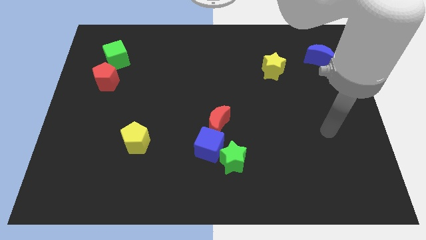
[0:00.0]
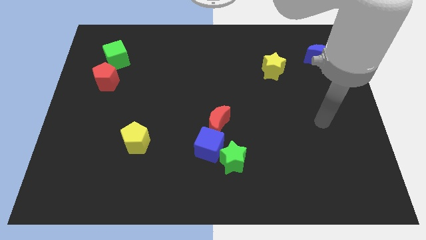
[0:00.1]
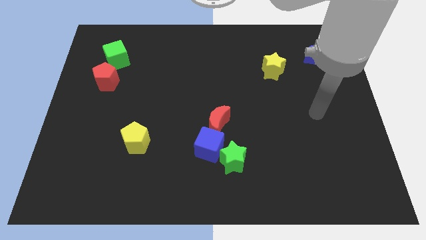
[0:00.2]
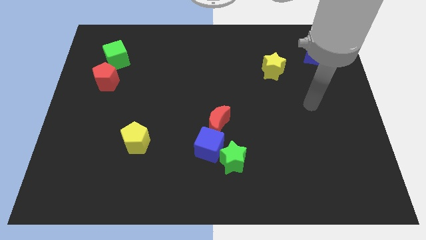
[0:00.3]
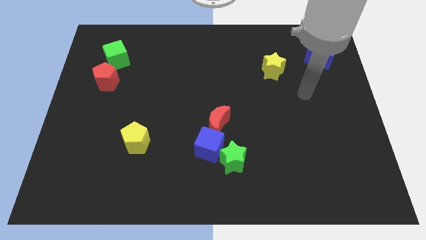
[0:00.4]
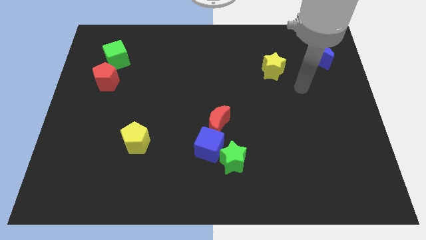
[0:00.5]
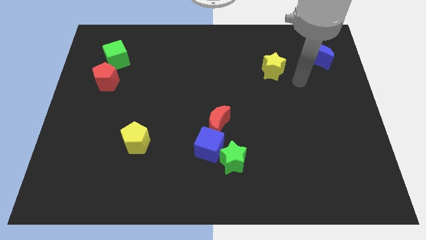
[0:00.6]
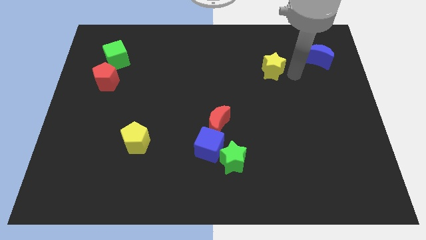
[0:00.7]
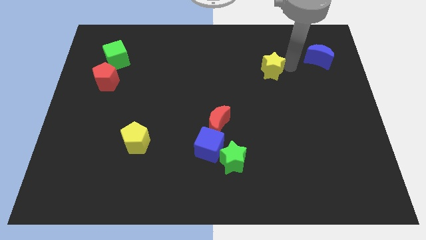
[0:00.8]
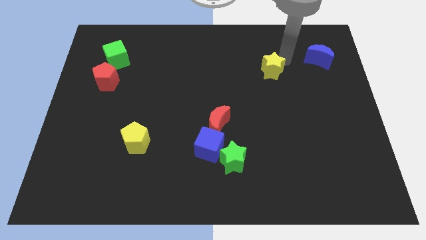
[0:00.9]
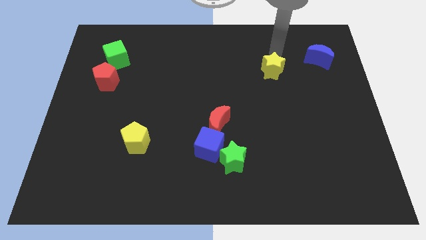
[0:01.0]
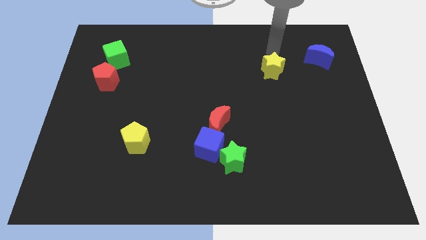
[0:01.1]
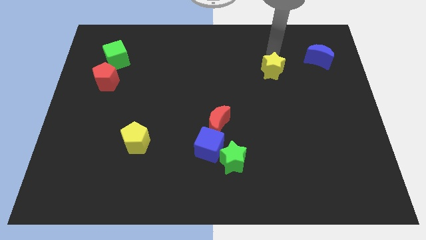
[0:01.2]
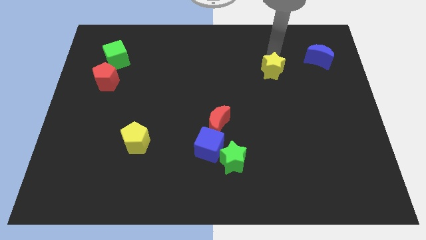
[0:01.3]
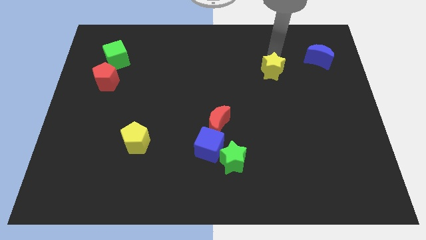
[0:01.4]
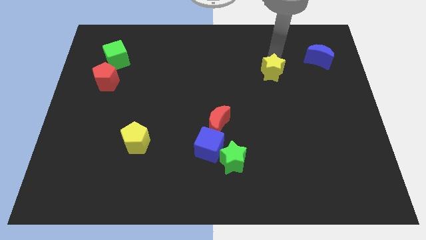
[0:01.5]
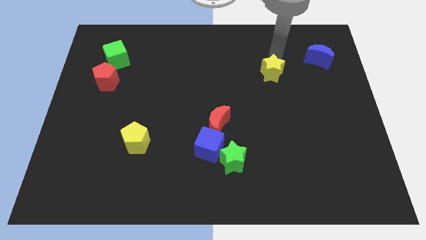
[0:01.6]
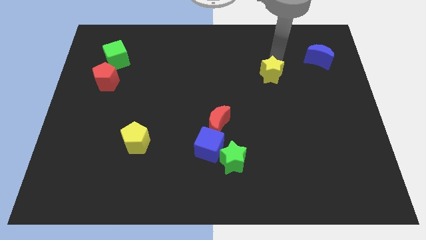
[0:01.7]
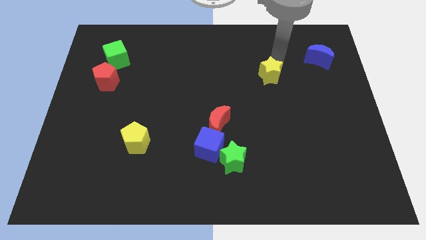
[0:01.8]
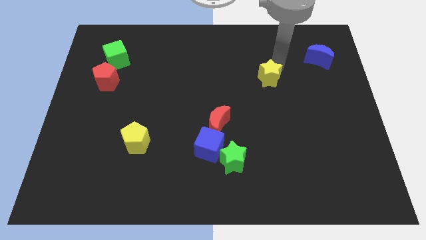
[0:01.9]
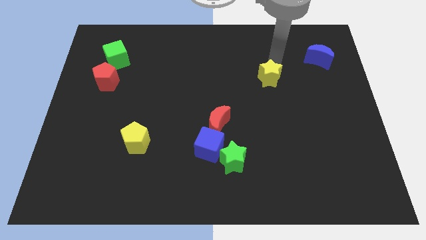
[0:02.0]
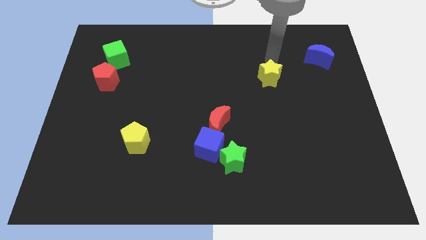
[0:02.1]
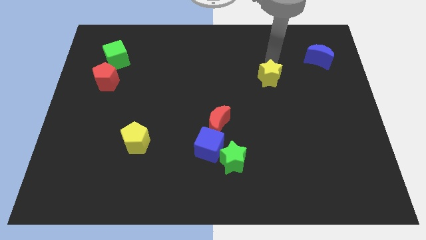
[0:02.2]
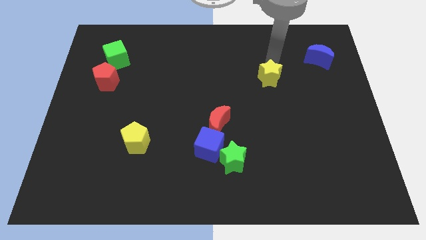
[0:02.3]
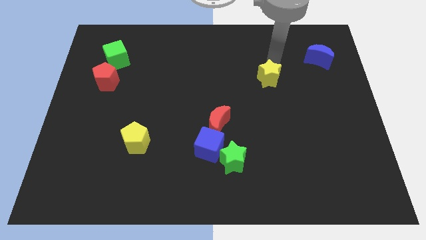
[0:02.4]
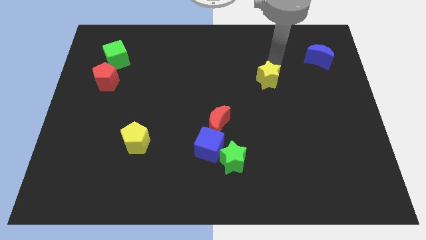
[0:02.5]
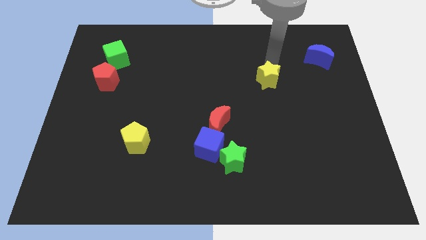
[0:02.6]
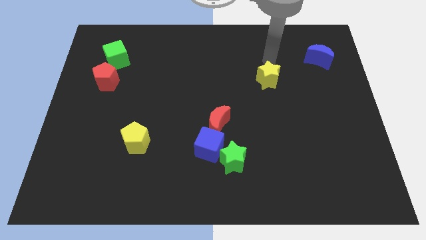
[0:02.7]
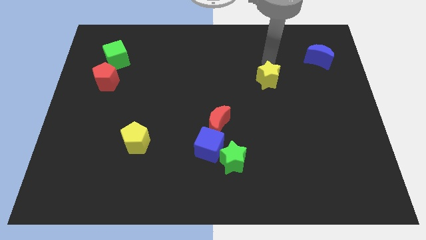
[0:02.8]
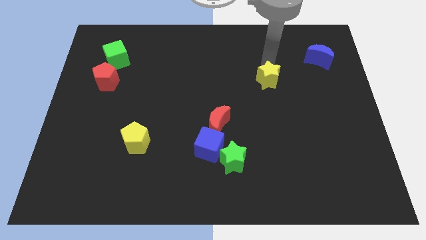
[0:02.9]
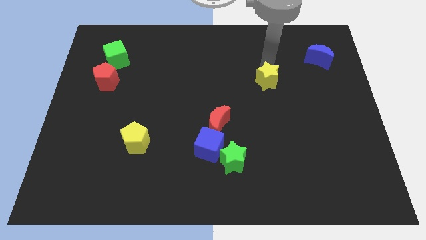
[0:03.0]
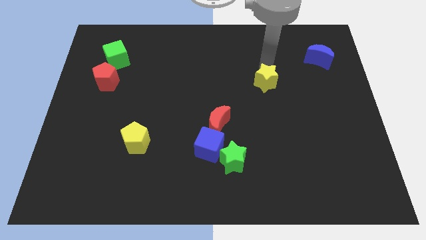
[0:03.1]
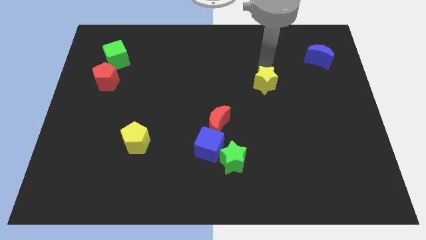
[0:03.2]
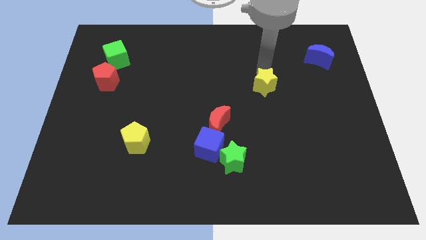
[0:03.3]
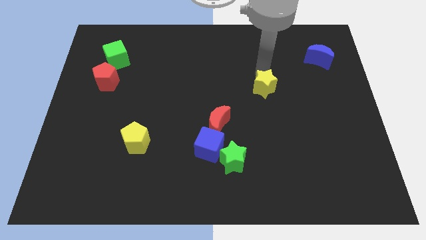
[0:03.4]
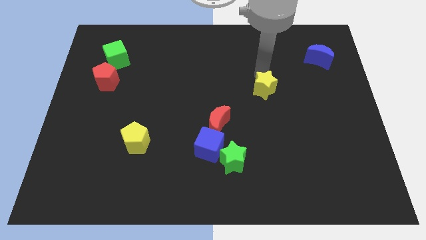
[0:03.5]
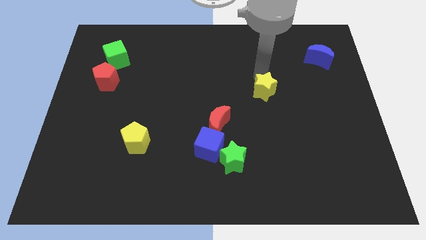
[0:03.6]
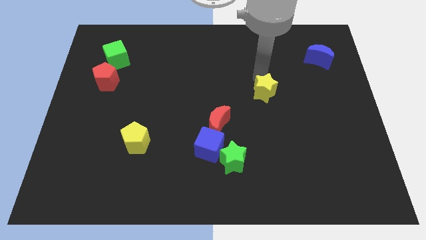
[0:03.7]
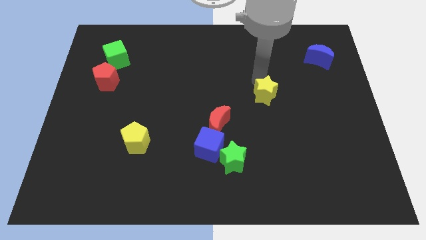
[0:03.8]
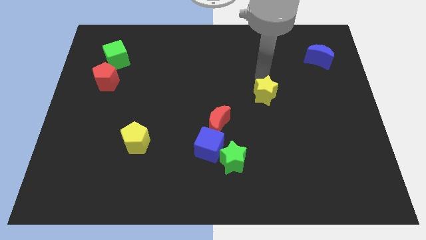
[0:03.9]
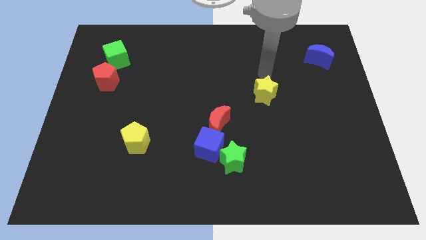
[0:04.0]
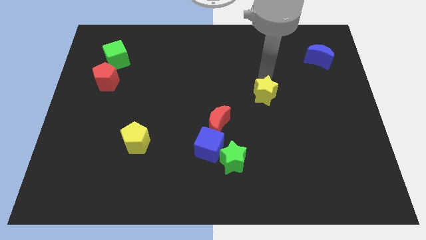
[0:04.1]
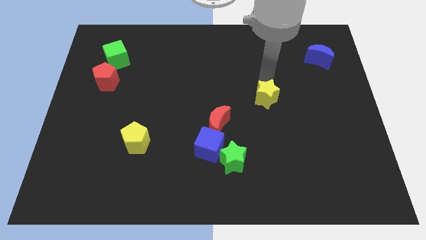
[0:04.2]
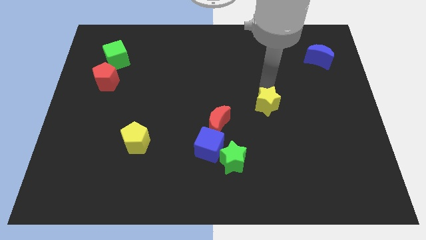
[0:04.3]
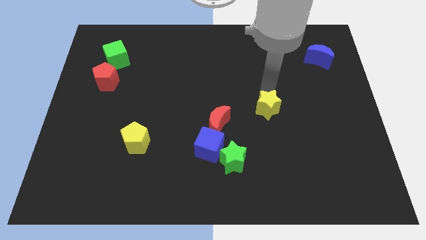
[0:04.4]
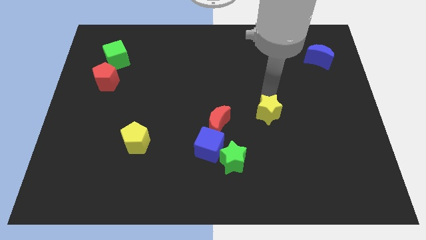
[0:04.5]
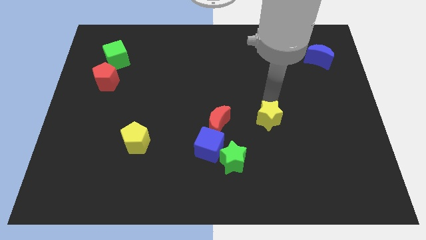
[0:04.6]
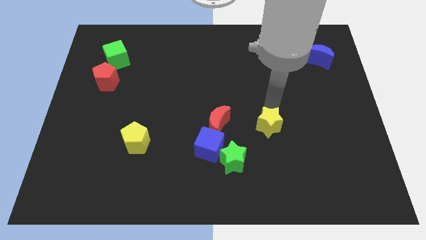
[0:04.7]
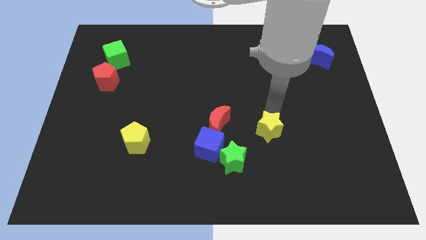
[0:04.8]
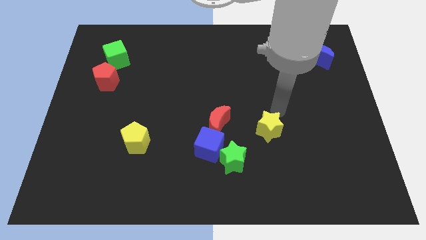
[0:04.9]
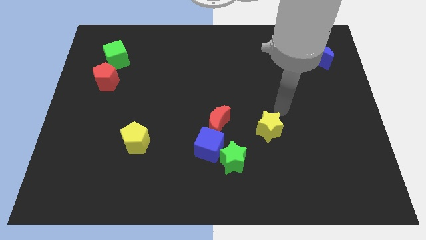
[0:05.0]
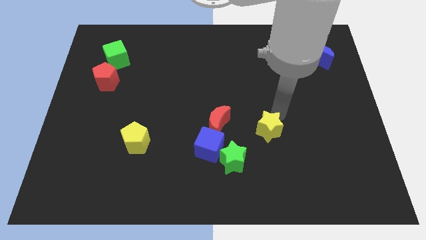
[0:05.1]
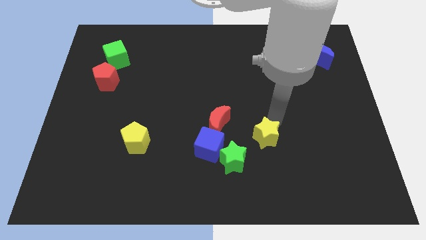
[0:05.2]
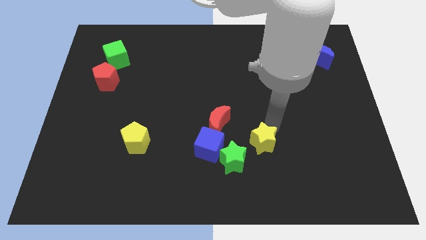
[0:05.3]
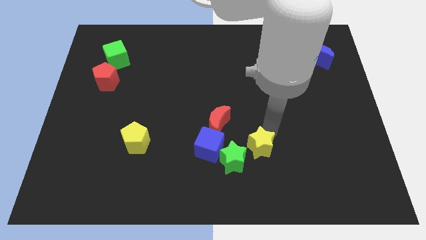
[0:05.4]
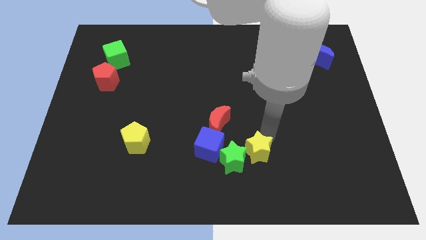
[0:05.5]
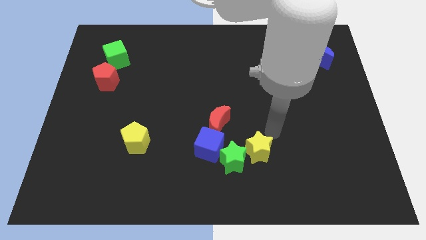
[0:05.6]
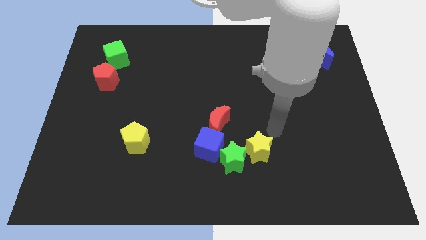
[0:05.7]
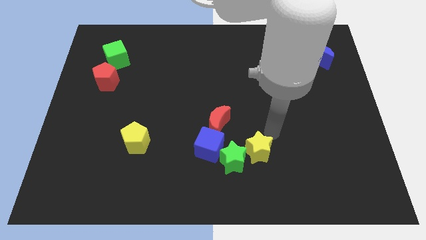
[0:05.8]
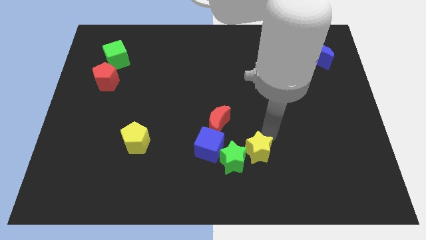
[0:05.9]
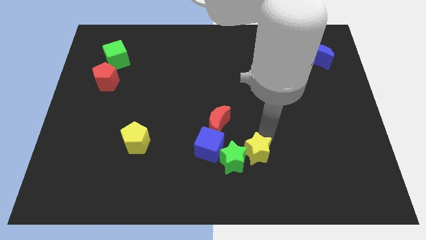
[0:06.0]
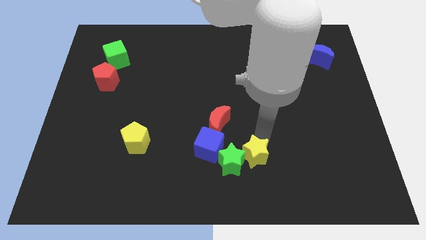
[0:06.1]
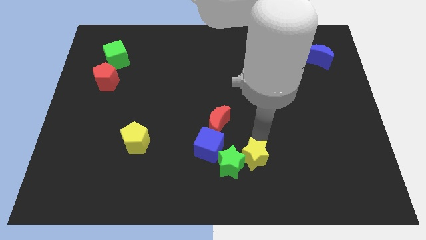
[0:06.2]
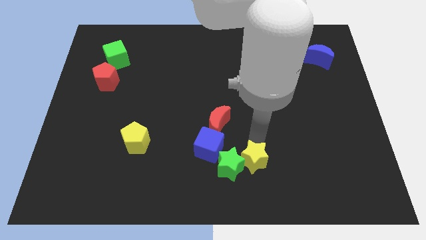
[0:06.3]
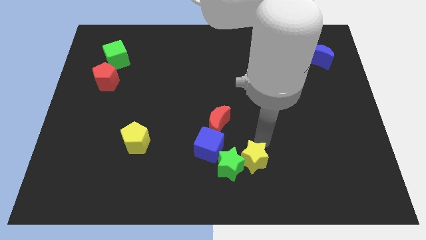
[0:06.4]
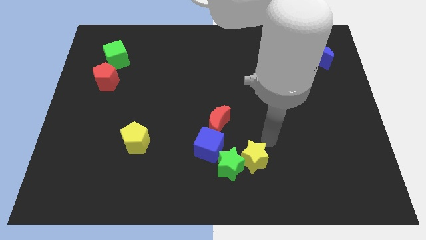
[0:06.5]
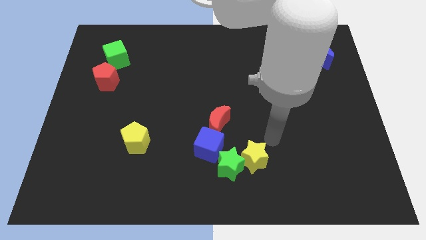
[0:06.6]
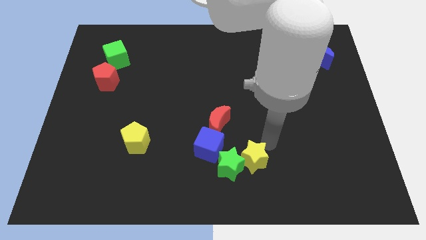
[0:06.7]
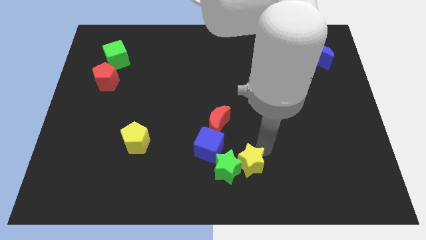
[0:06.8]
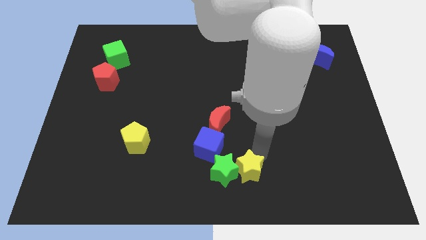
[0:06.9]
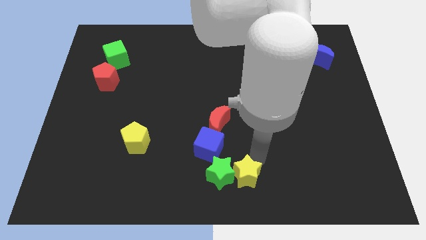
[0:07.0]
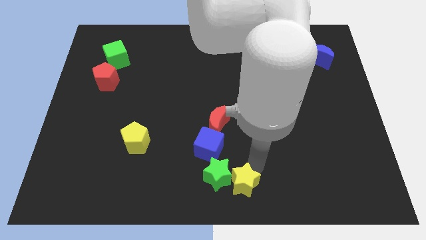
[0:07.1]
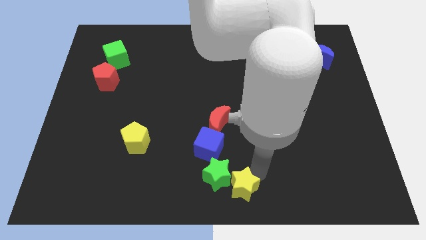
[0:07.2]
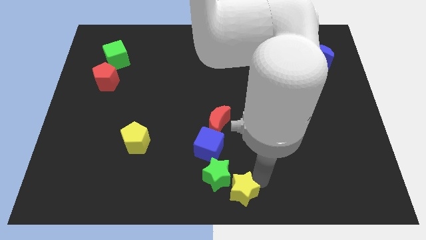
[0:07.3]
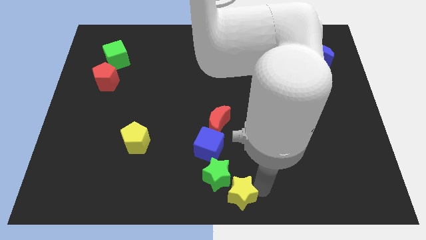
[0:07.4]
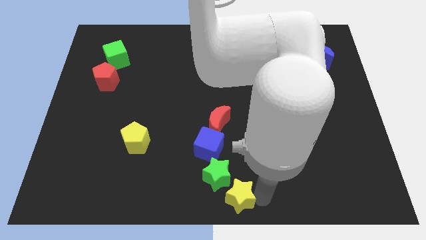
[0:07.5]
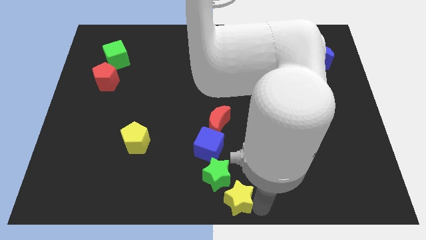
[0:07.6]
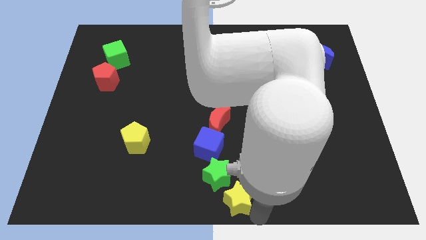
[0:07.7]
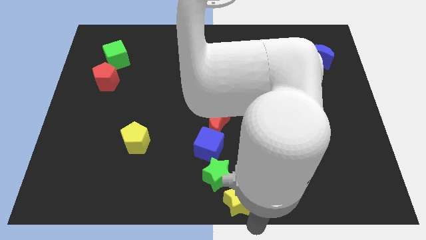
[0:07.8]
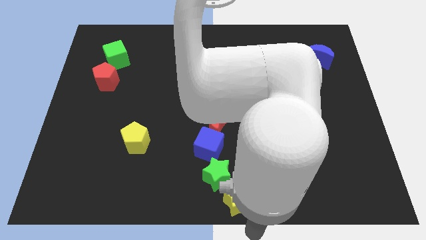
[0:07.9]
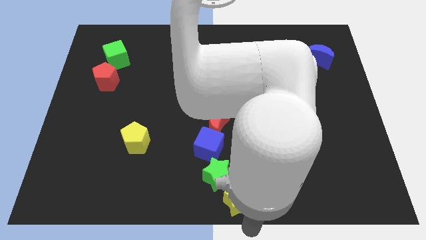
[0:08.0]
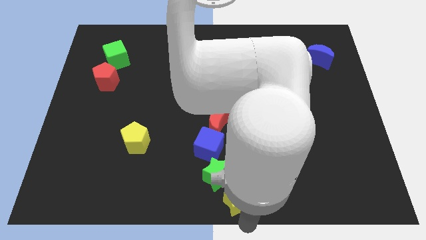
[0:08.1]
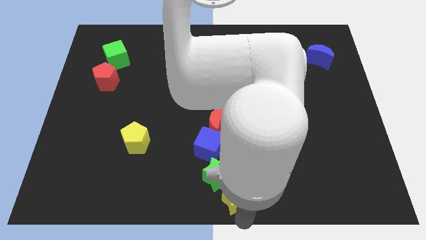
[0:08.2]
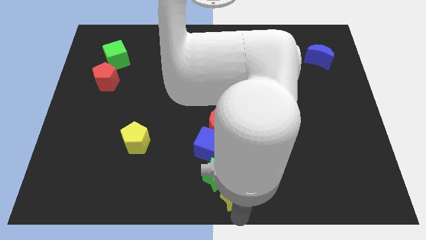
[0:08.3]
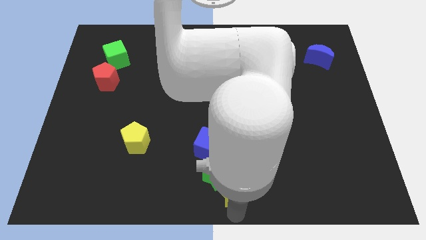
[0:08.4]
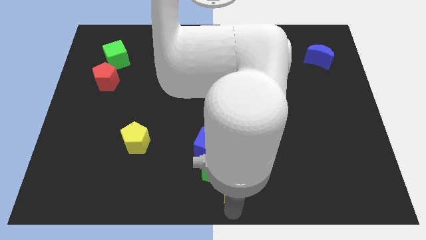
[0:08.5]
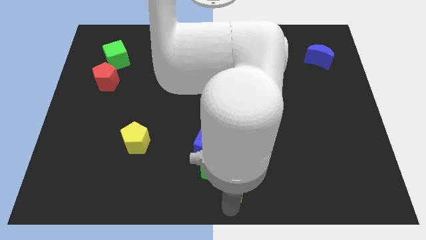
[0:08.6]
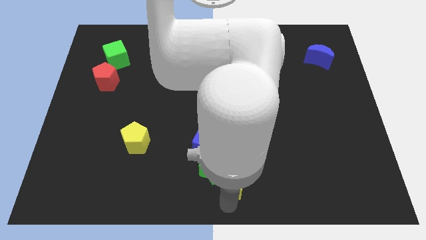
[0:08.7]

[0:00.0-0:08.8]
slide the yellow star to the bottom of the red moon
